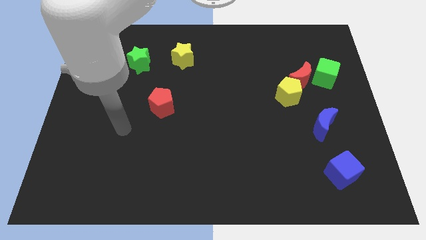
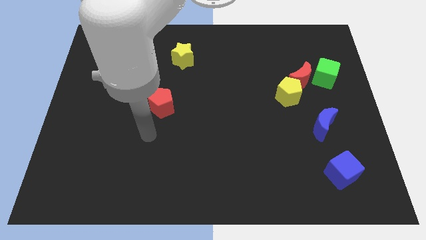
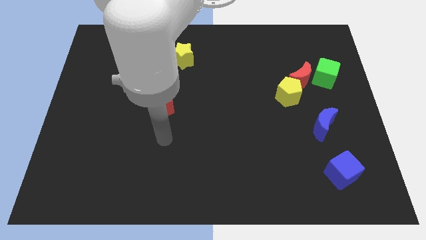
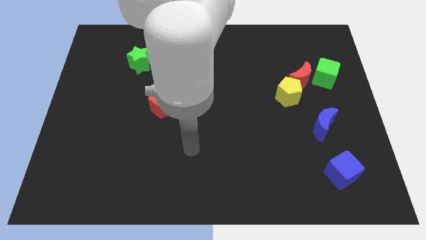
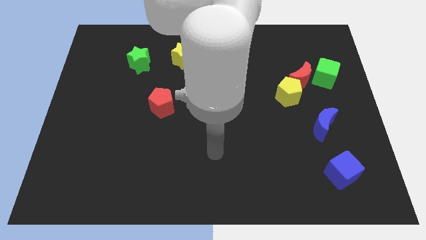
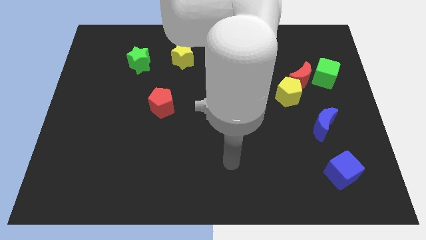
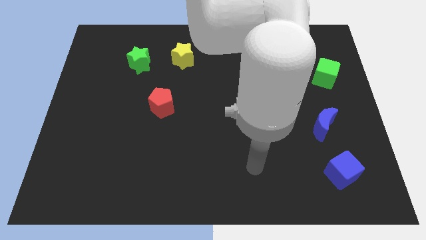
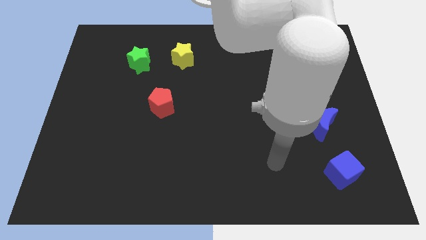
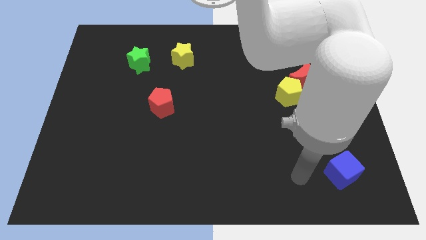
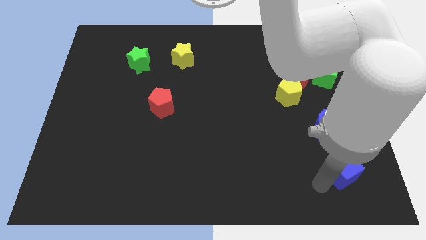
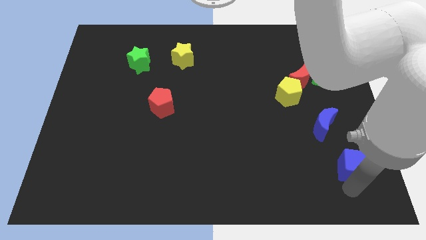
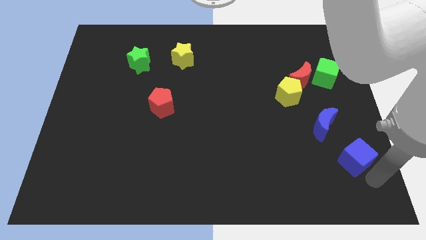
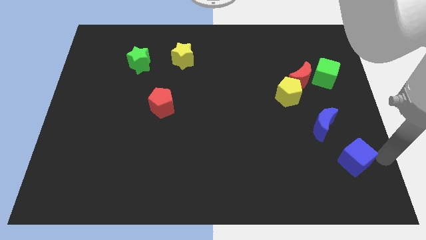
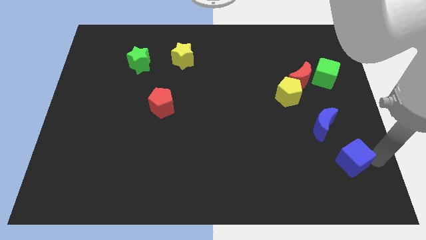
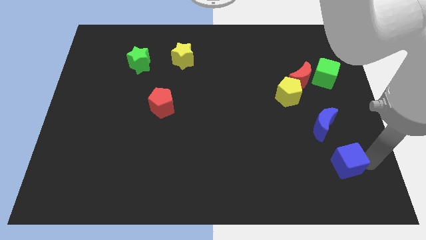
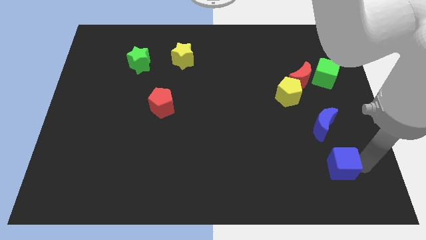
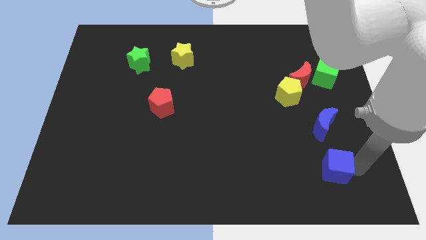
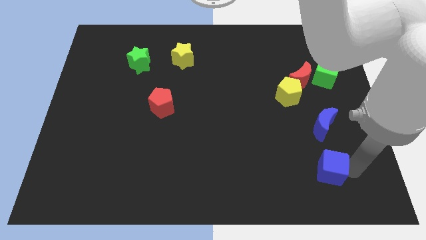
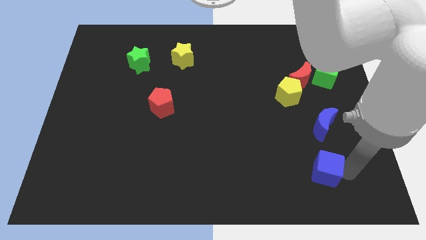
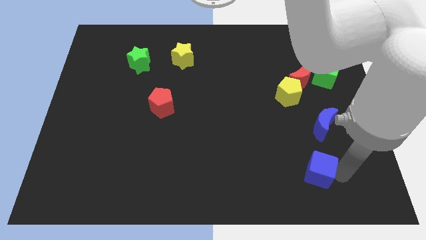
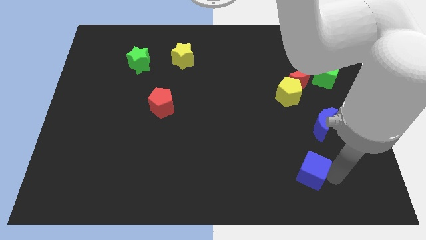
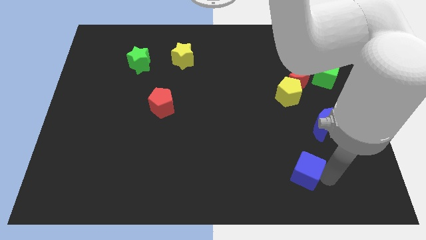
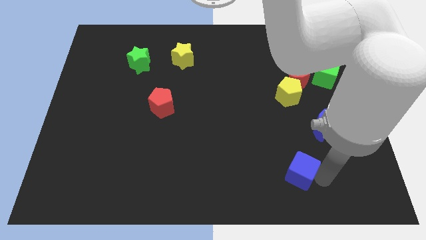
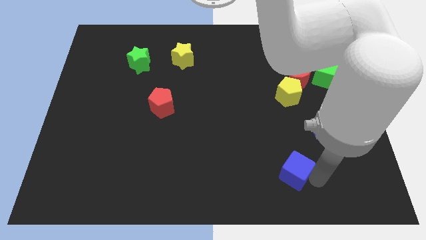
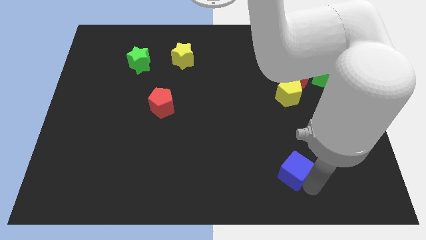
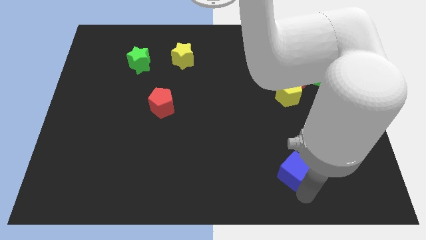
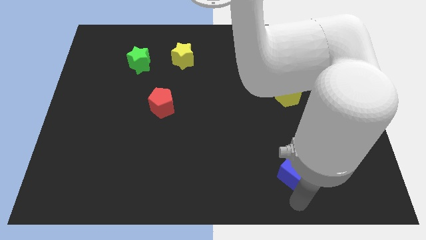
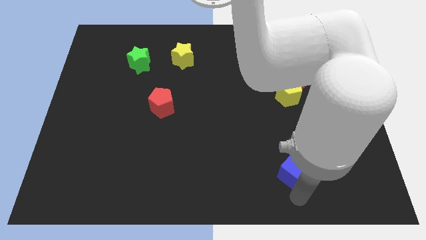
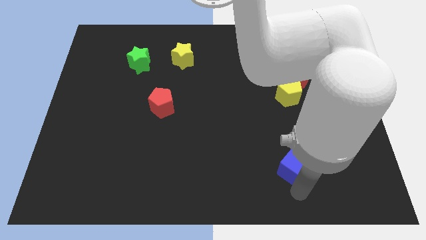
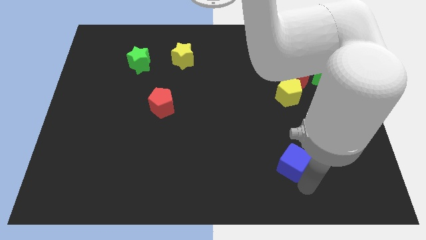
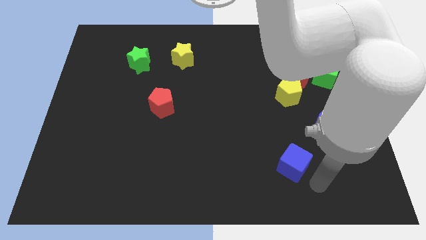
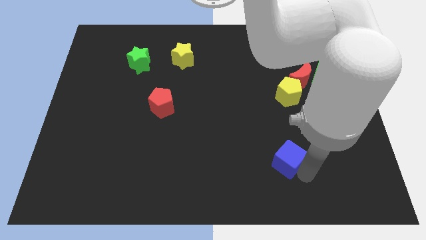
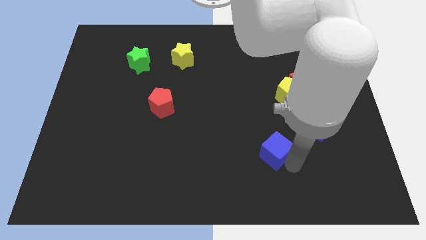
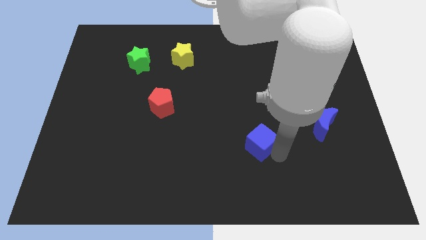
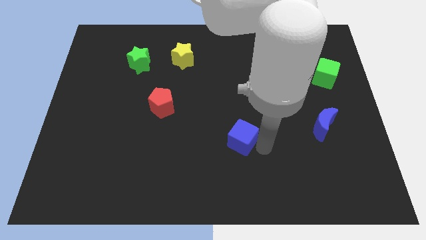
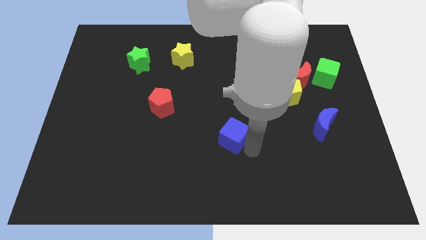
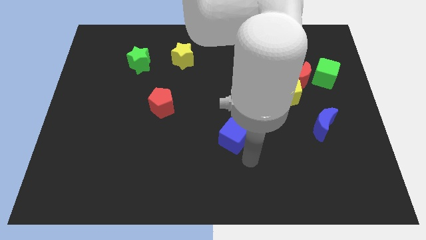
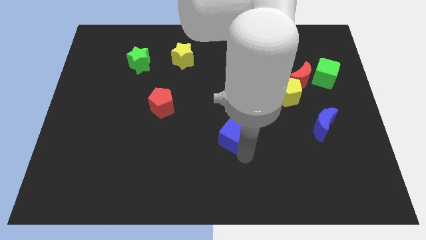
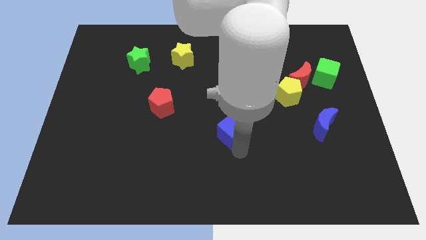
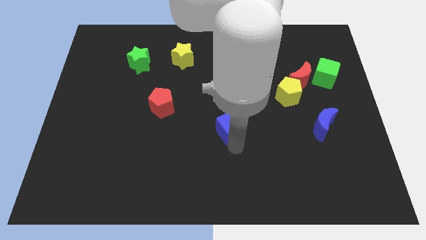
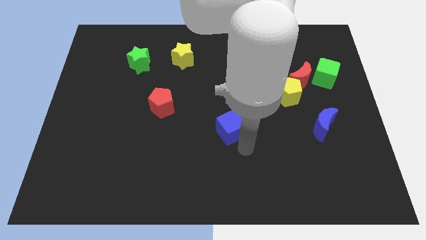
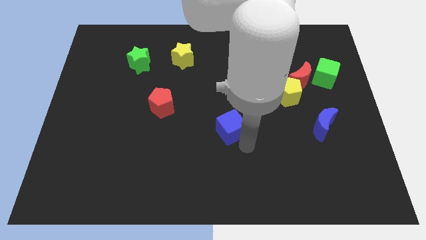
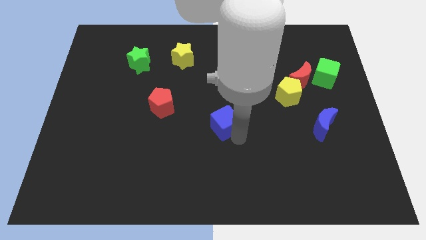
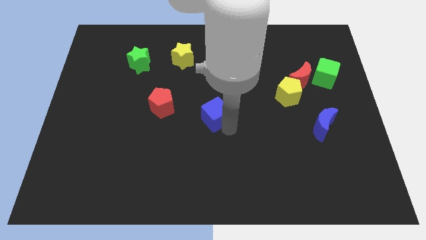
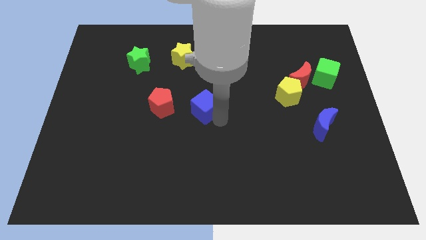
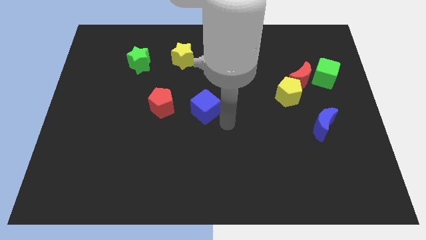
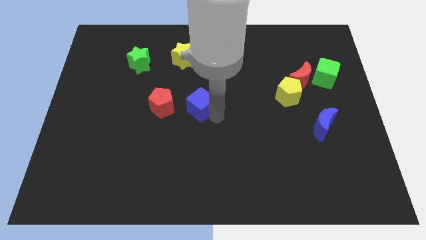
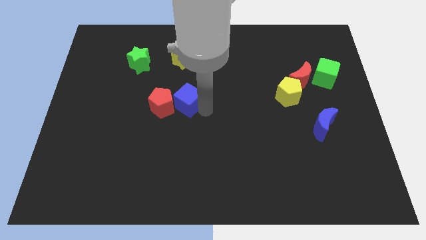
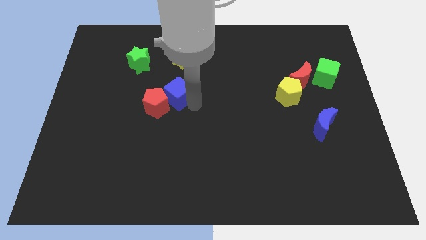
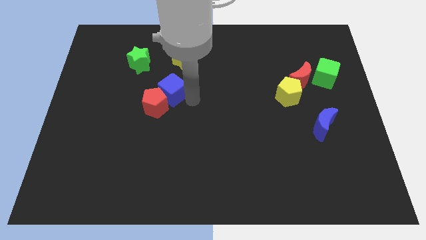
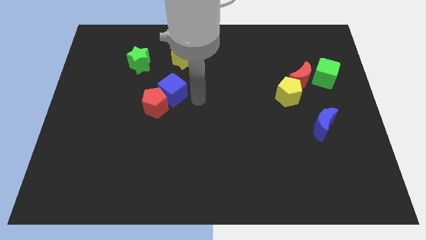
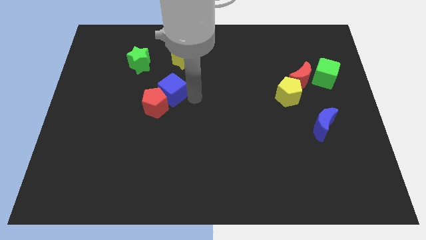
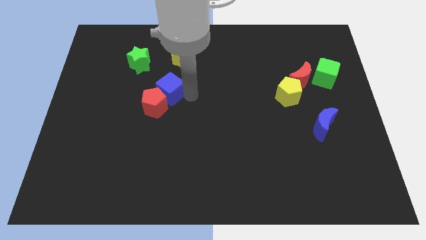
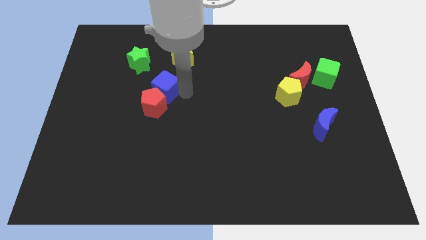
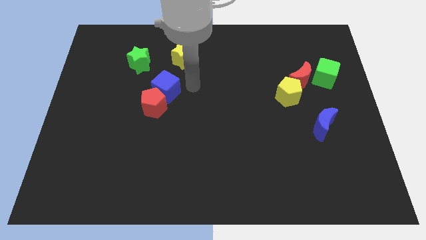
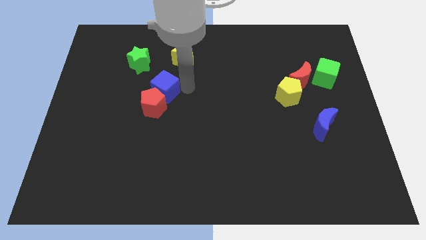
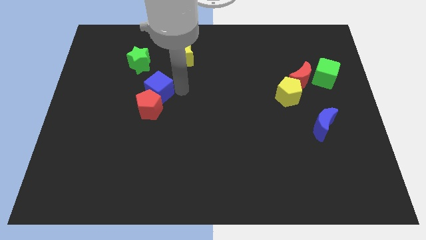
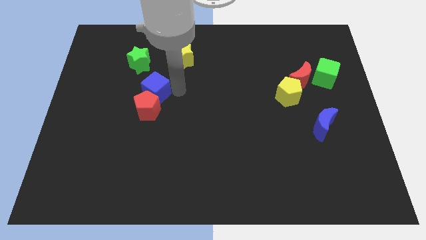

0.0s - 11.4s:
push the blue cube to the bottom side of the green star

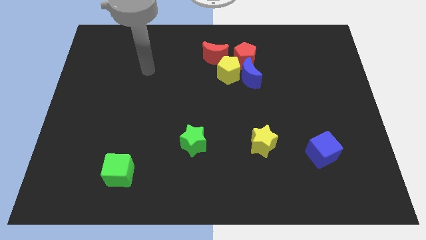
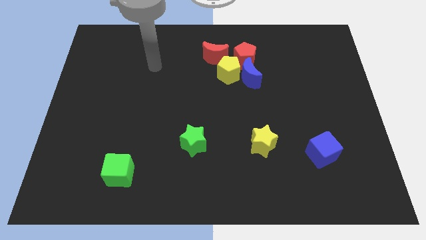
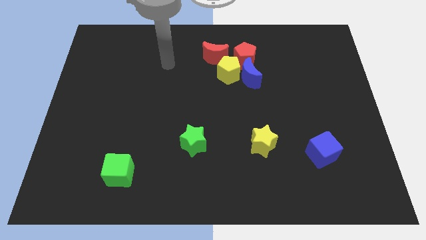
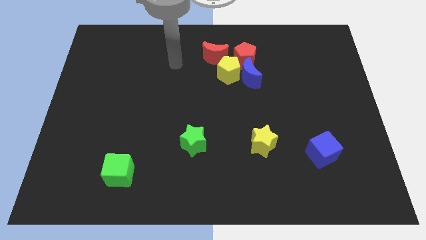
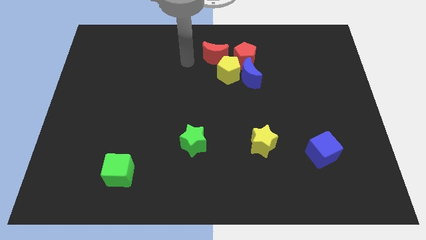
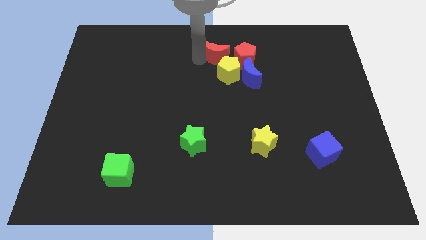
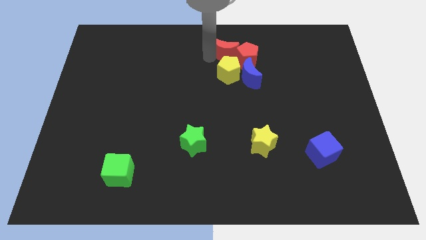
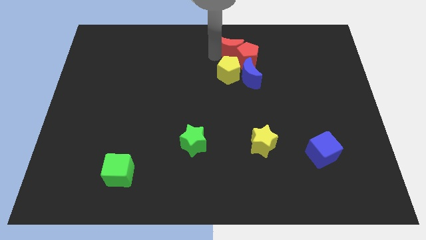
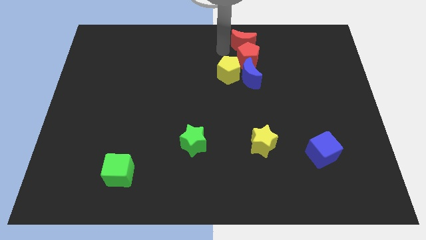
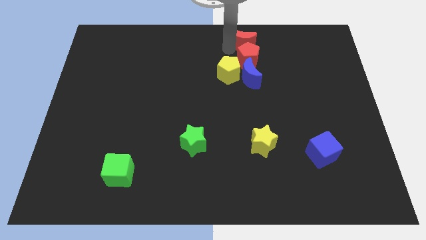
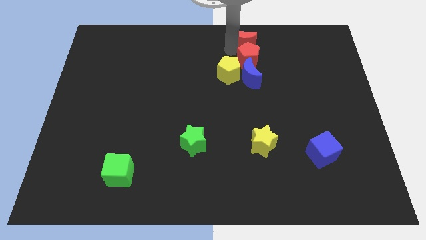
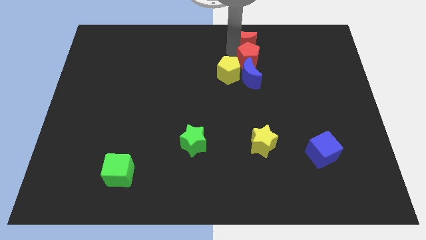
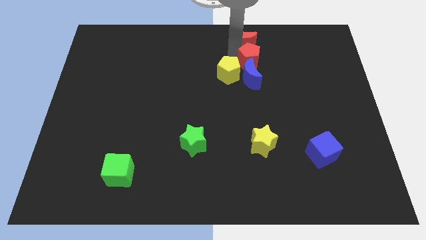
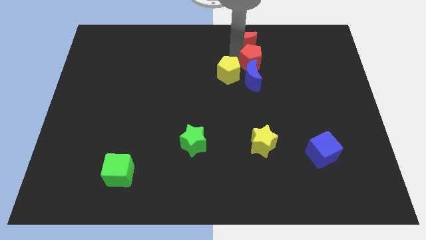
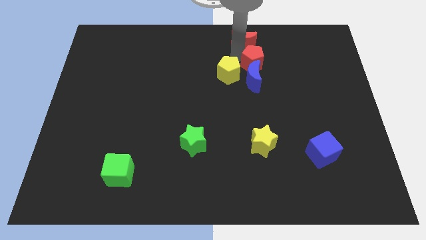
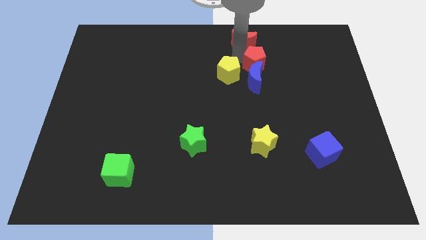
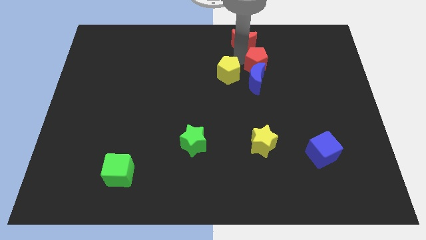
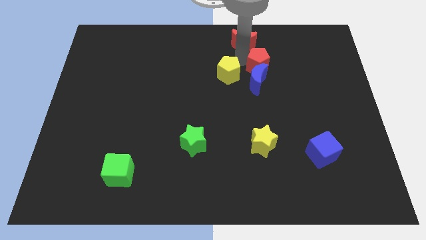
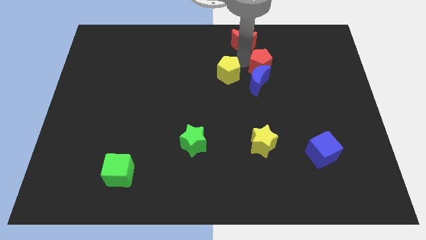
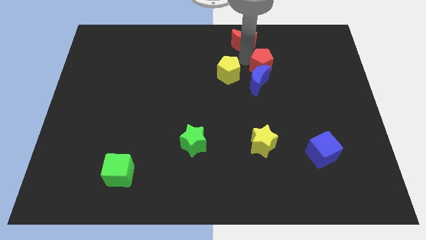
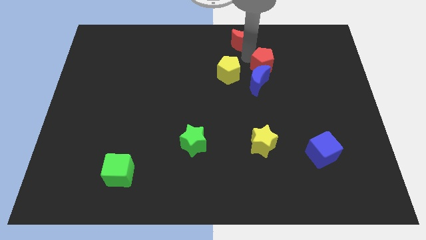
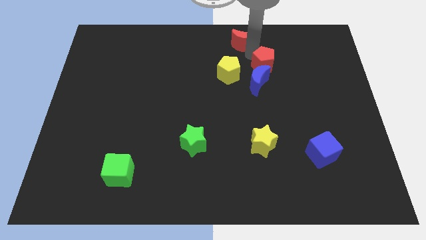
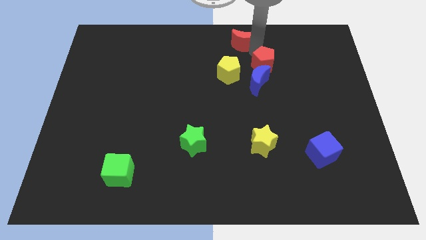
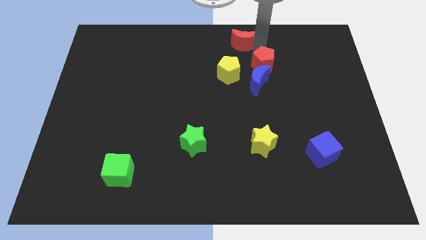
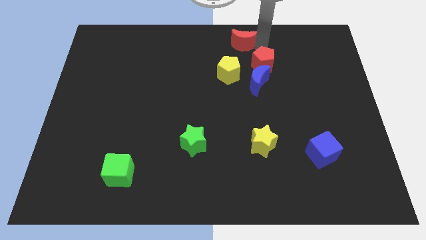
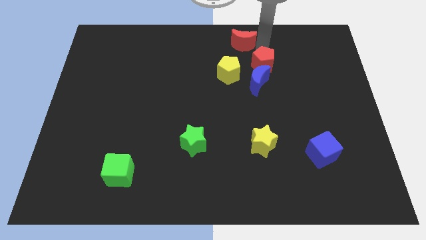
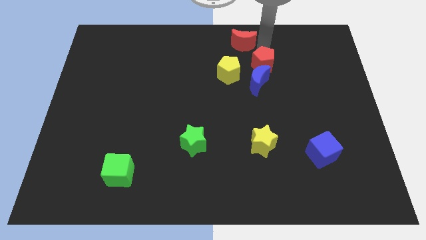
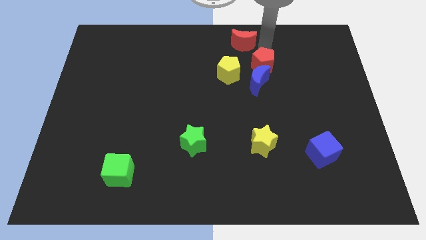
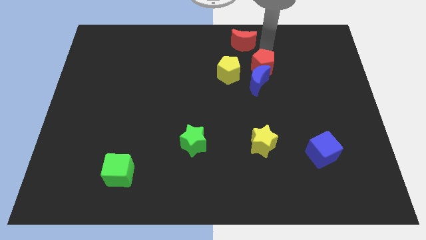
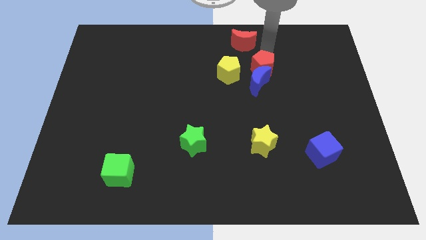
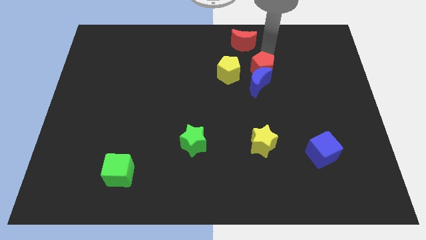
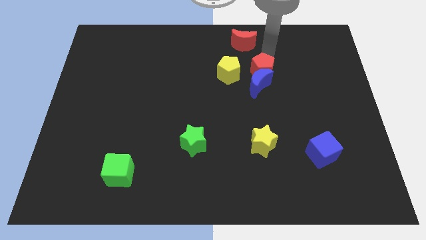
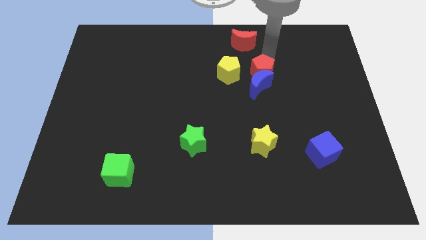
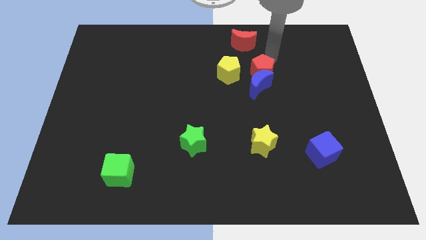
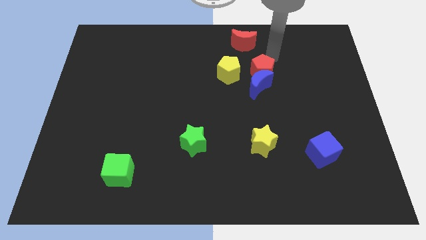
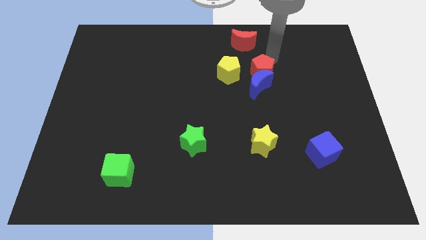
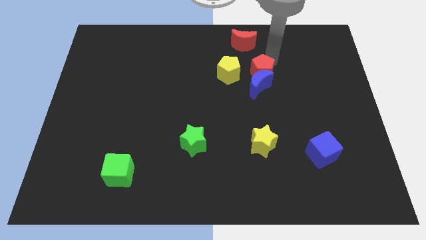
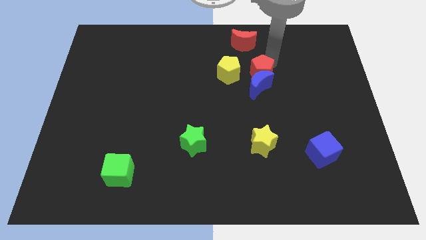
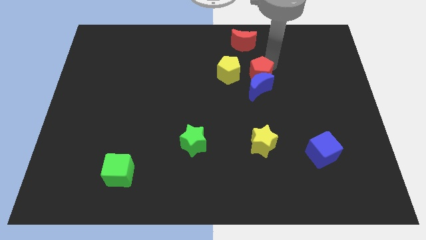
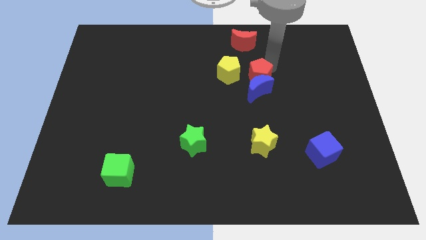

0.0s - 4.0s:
move the red pentagon diagonally down and to the right of the yellow pentagon
